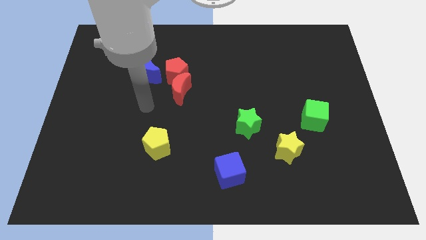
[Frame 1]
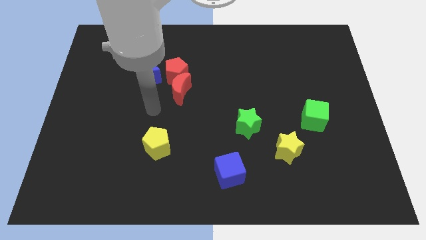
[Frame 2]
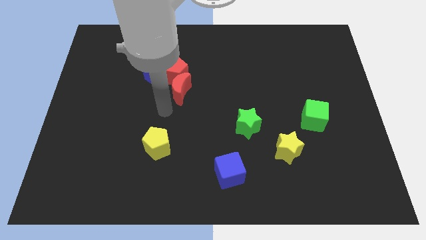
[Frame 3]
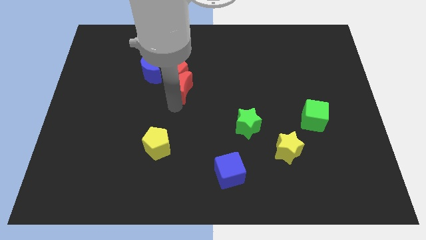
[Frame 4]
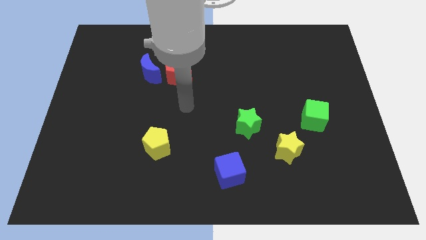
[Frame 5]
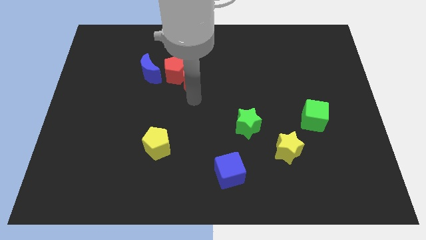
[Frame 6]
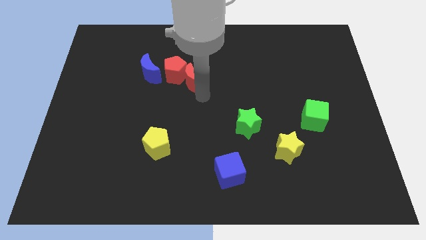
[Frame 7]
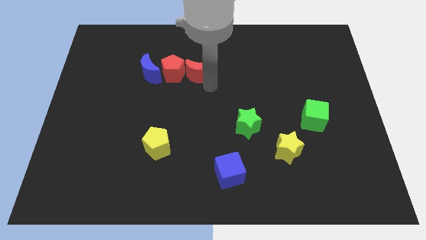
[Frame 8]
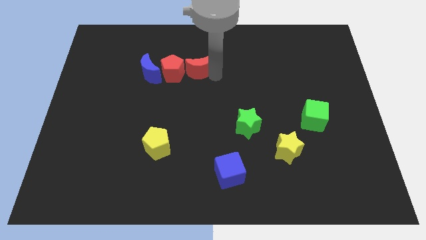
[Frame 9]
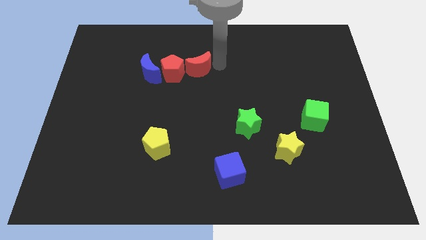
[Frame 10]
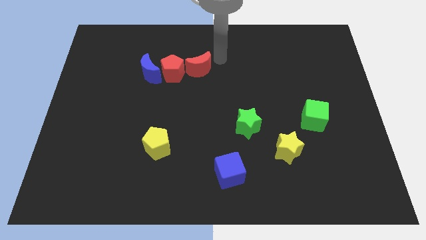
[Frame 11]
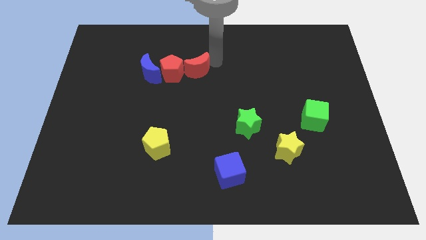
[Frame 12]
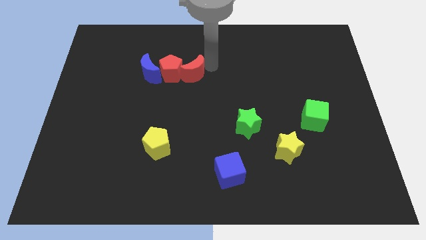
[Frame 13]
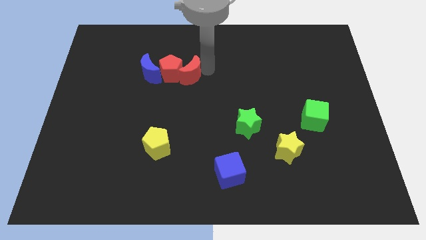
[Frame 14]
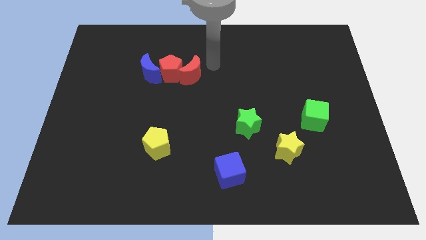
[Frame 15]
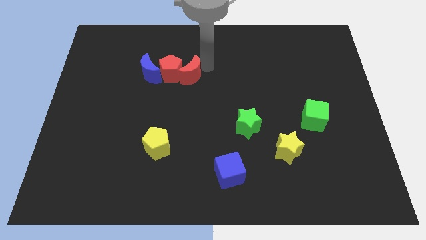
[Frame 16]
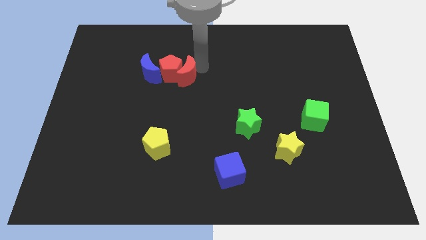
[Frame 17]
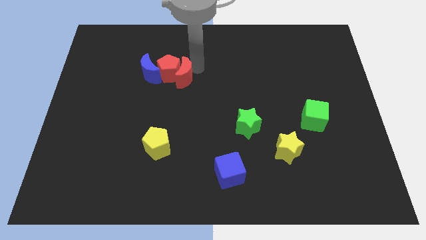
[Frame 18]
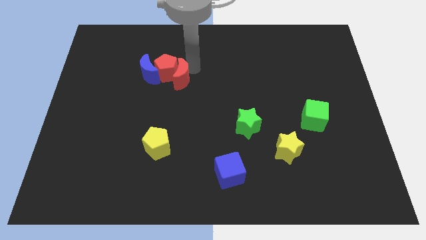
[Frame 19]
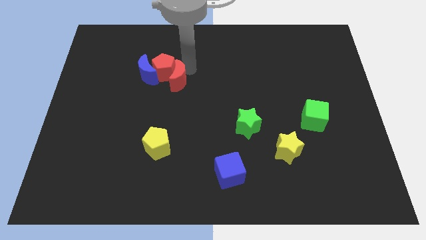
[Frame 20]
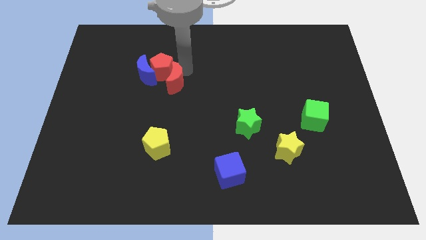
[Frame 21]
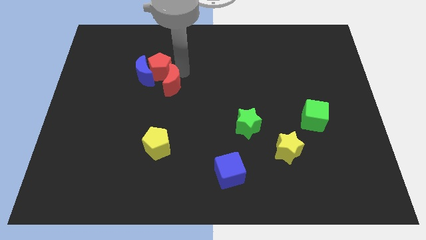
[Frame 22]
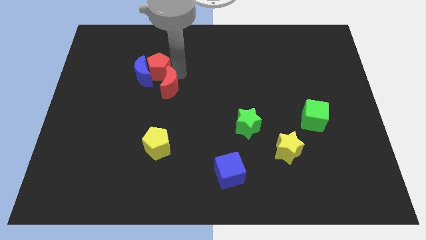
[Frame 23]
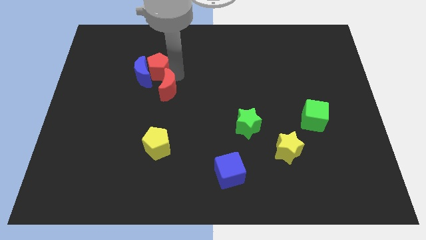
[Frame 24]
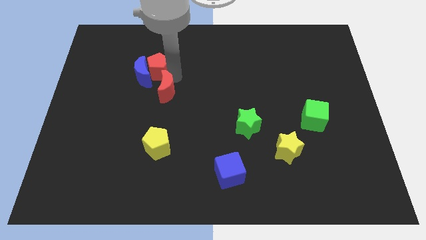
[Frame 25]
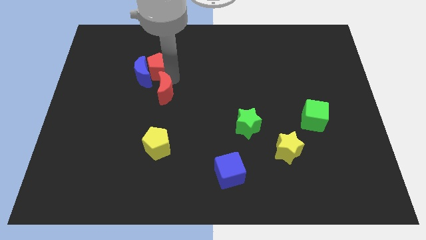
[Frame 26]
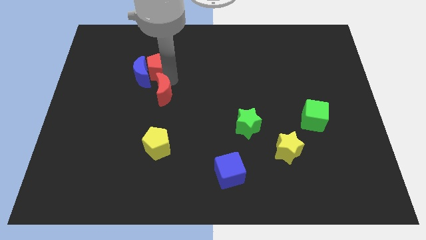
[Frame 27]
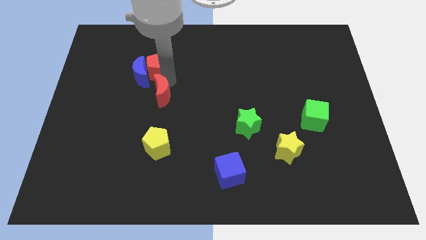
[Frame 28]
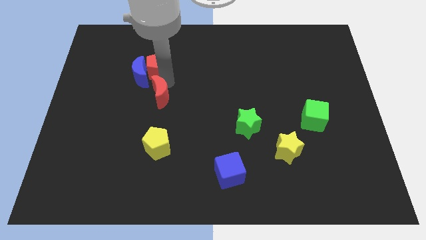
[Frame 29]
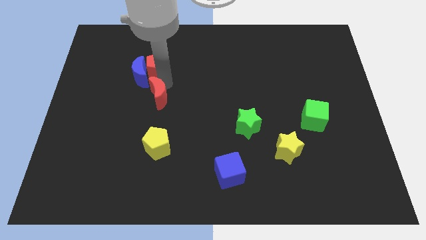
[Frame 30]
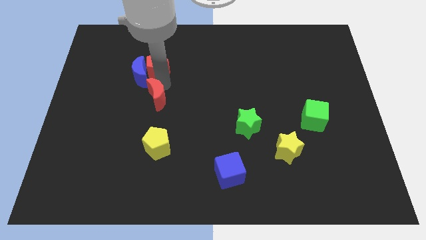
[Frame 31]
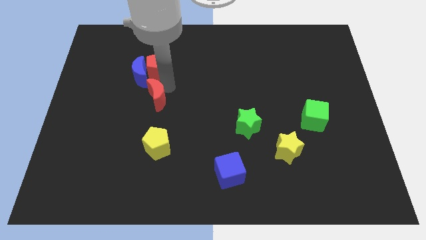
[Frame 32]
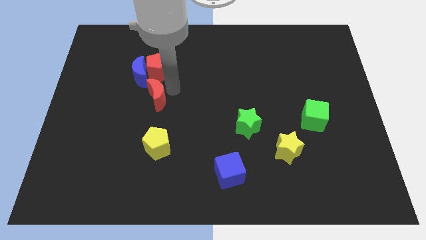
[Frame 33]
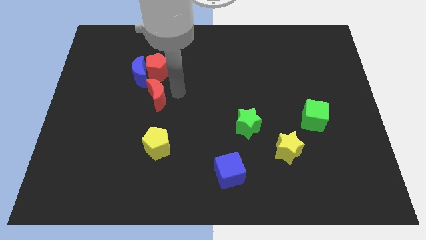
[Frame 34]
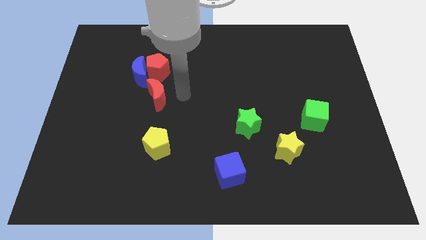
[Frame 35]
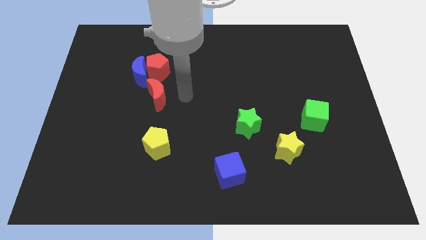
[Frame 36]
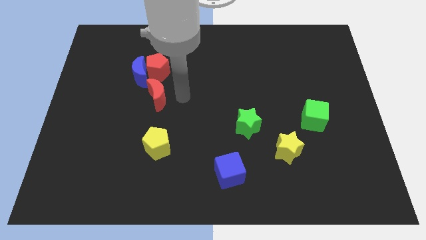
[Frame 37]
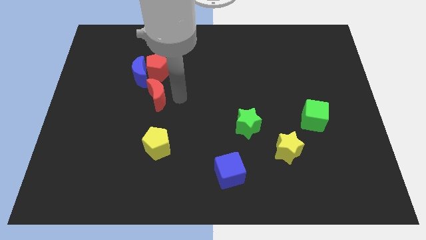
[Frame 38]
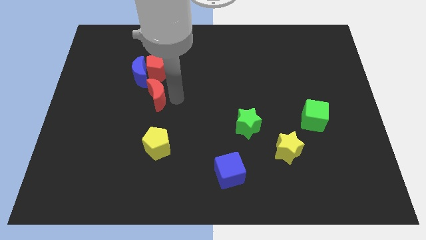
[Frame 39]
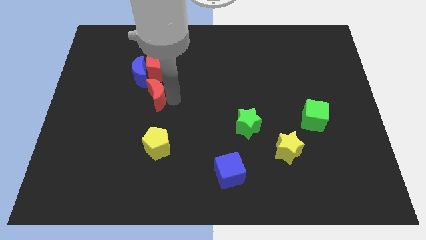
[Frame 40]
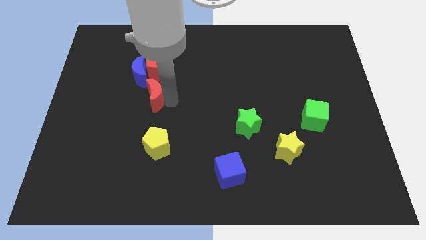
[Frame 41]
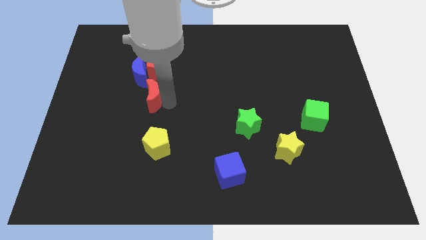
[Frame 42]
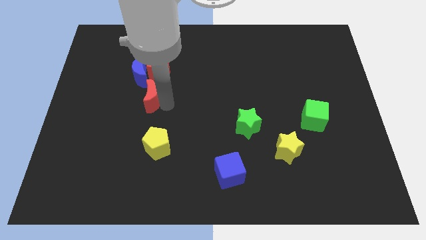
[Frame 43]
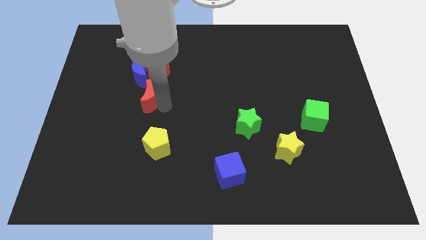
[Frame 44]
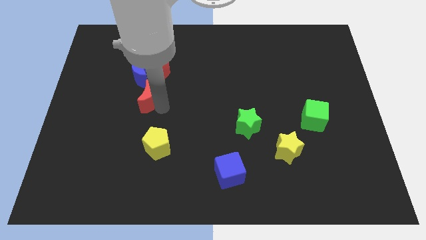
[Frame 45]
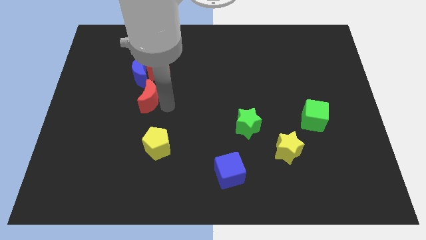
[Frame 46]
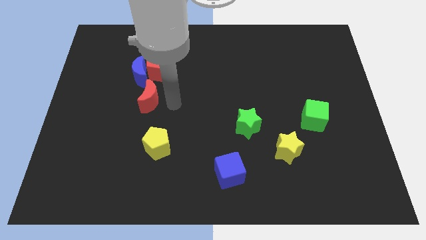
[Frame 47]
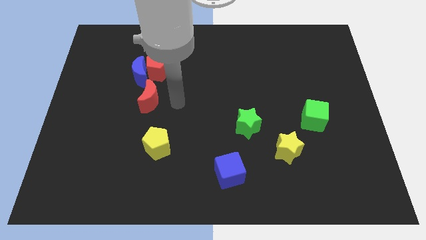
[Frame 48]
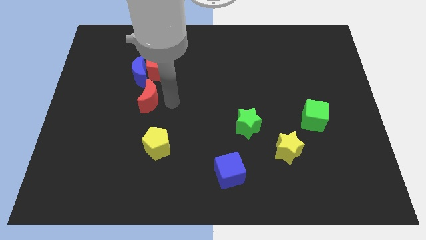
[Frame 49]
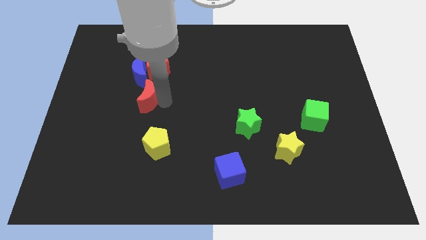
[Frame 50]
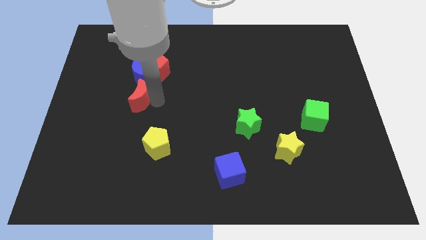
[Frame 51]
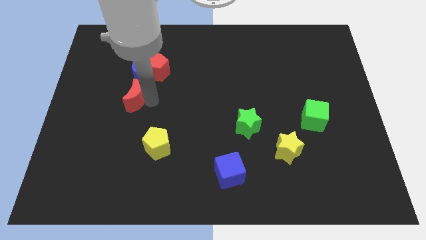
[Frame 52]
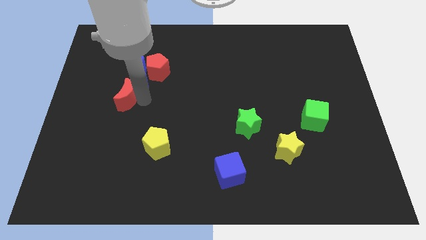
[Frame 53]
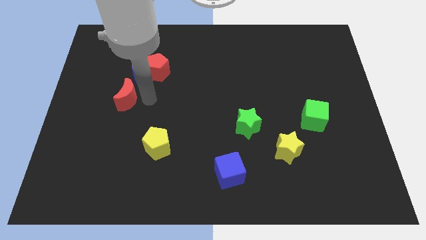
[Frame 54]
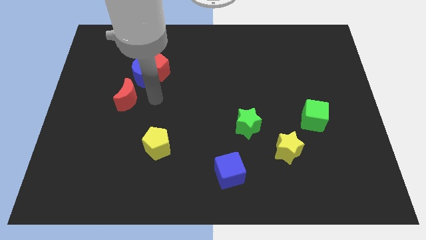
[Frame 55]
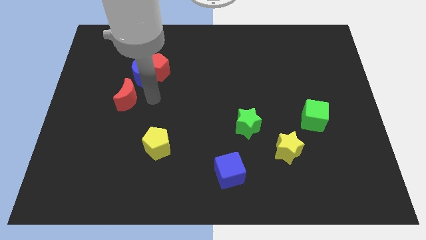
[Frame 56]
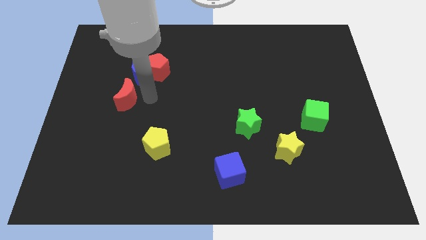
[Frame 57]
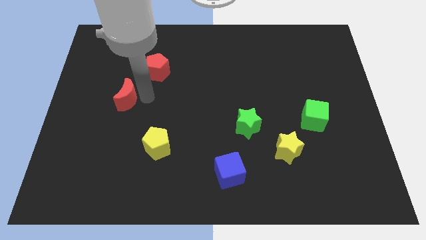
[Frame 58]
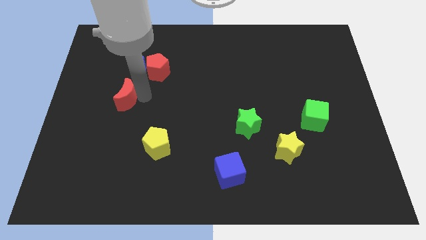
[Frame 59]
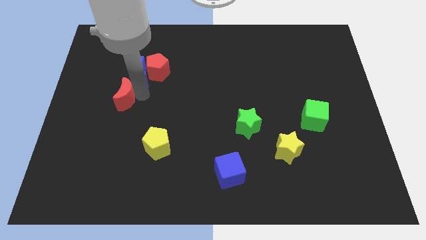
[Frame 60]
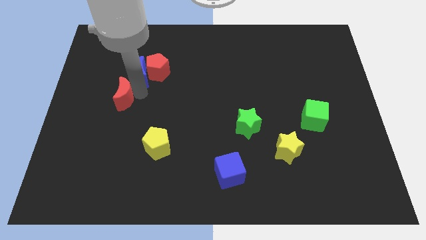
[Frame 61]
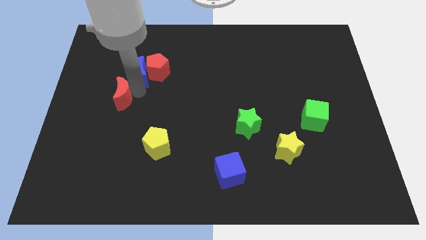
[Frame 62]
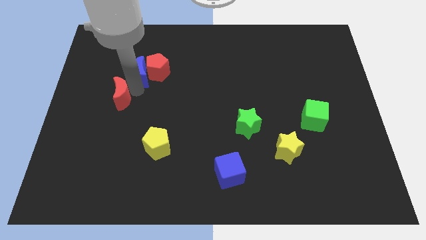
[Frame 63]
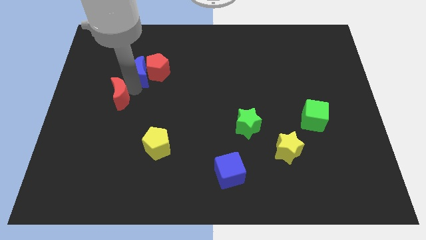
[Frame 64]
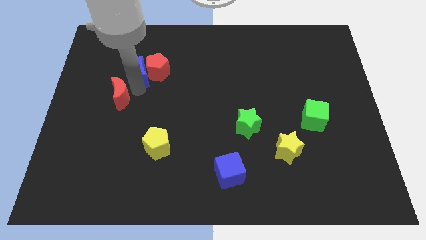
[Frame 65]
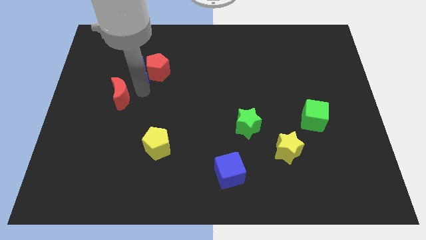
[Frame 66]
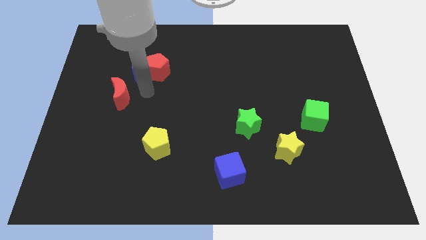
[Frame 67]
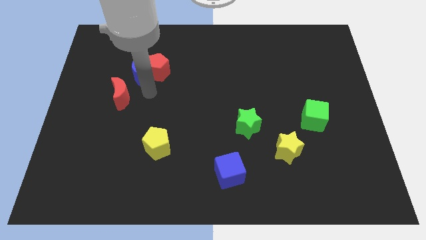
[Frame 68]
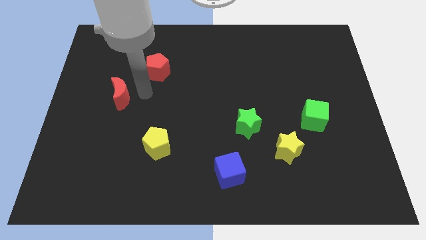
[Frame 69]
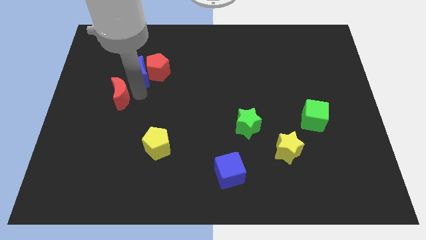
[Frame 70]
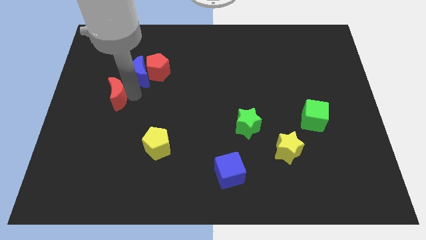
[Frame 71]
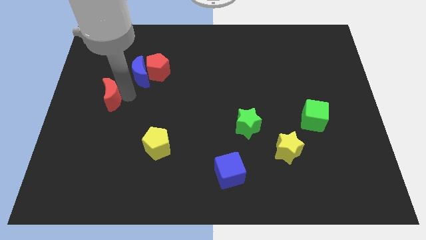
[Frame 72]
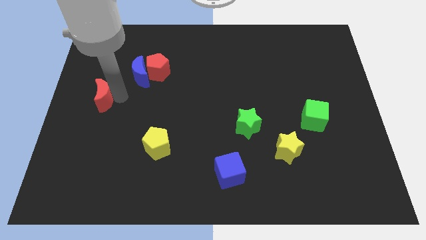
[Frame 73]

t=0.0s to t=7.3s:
move the red moon to the left side
